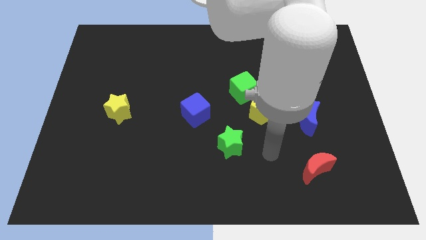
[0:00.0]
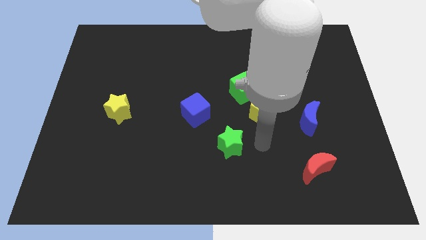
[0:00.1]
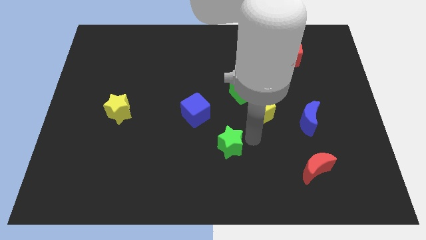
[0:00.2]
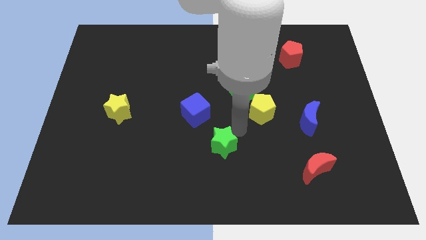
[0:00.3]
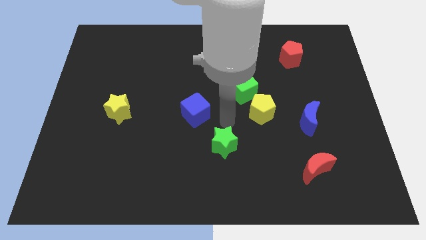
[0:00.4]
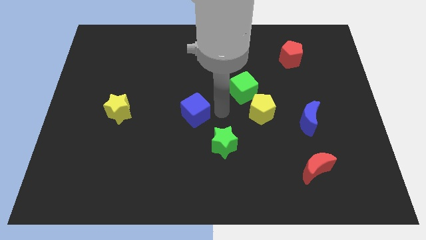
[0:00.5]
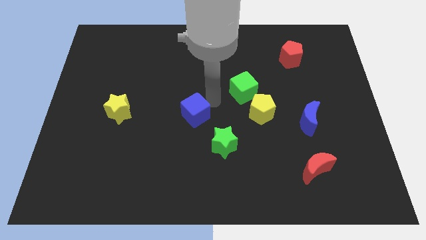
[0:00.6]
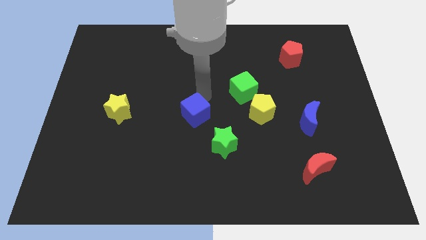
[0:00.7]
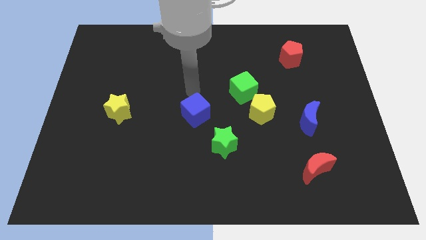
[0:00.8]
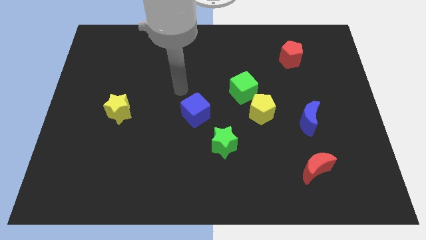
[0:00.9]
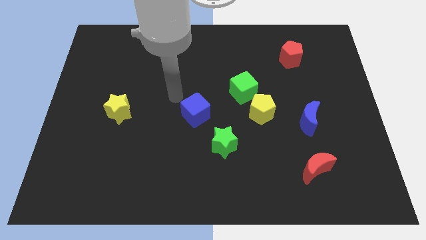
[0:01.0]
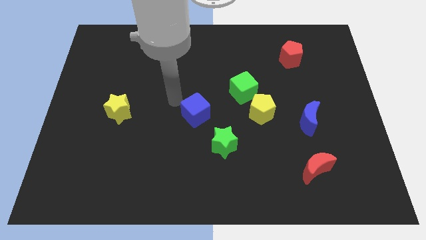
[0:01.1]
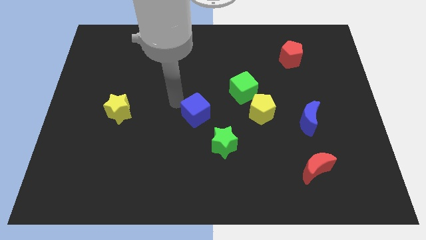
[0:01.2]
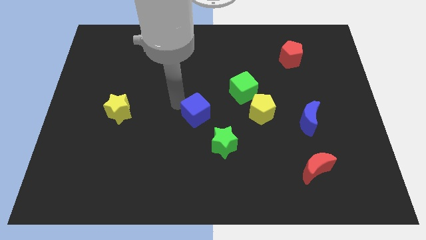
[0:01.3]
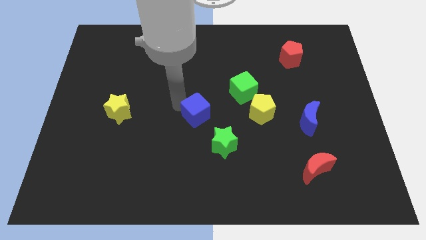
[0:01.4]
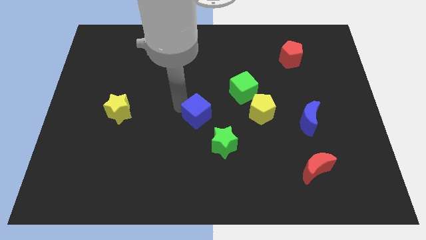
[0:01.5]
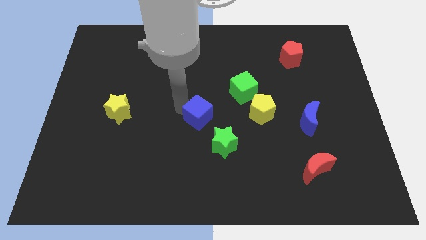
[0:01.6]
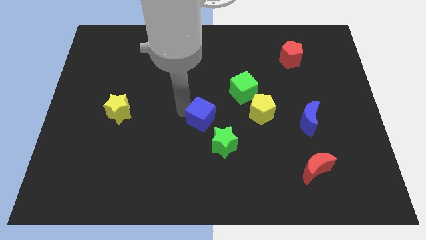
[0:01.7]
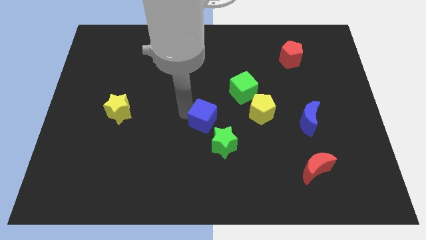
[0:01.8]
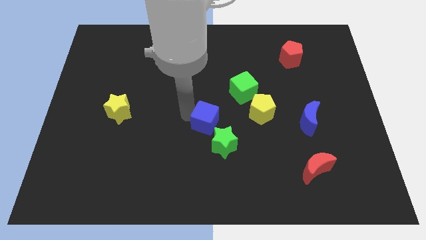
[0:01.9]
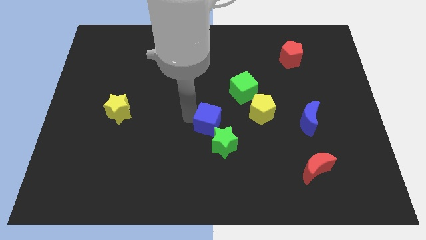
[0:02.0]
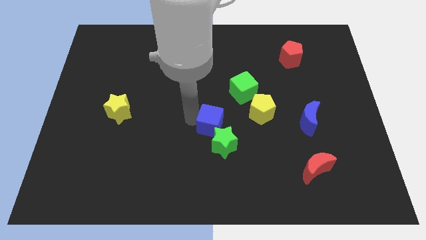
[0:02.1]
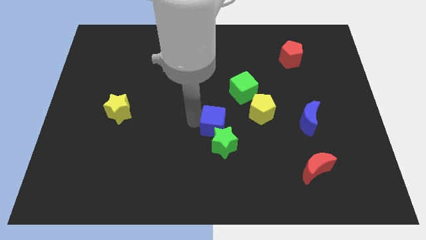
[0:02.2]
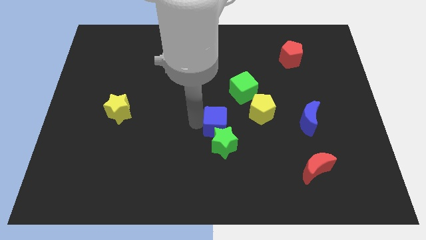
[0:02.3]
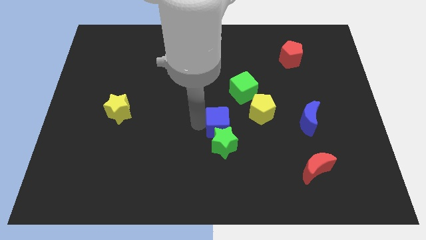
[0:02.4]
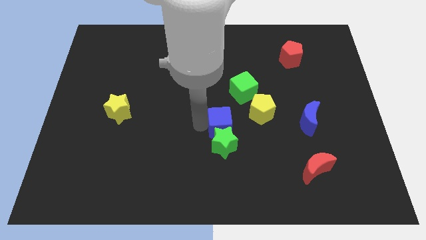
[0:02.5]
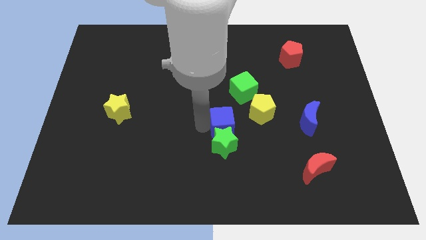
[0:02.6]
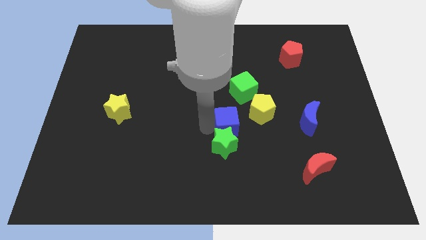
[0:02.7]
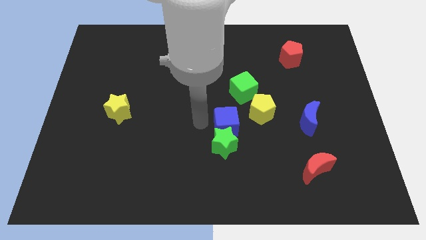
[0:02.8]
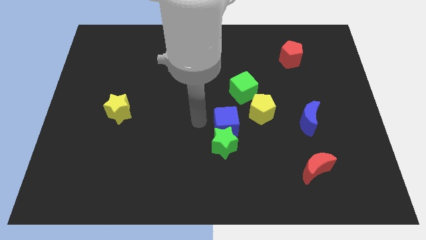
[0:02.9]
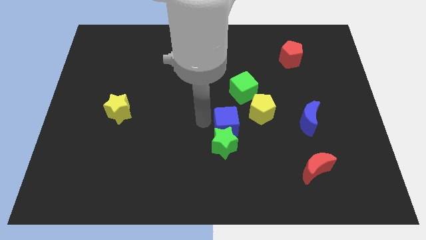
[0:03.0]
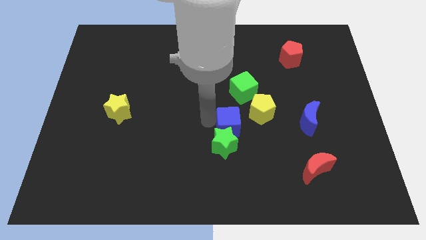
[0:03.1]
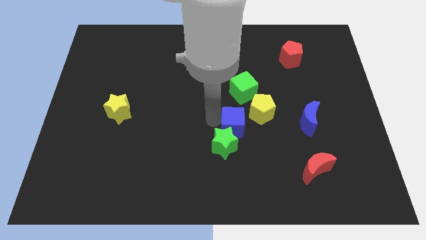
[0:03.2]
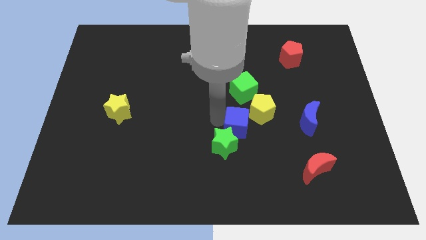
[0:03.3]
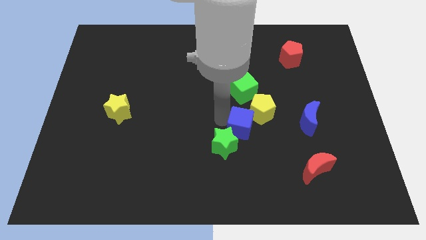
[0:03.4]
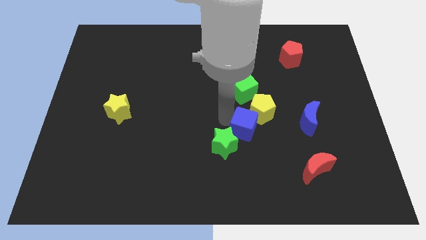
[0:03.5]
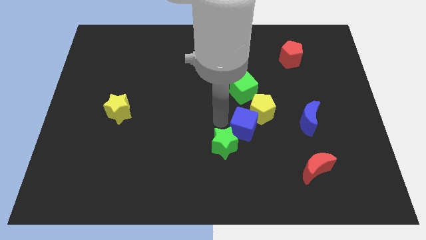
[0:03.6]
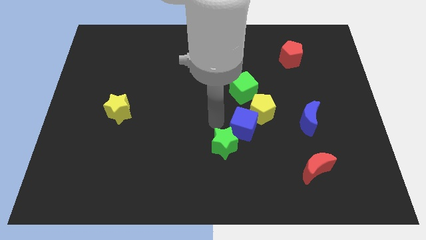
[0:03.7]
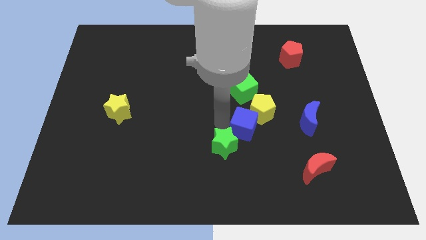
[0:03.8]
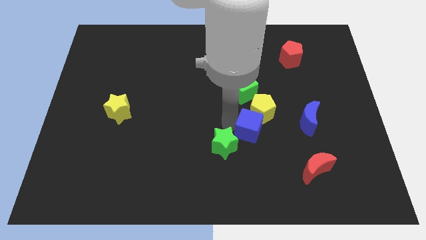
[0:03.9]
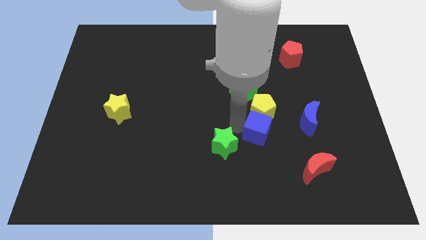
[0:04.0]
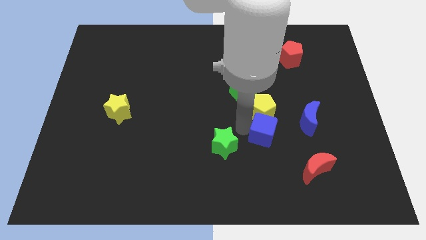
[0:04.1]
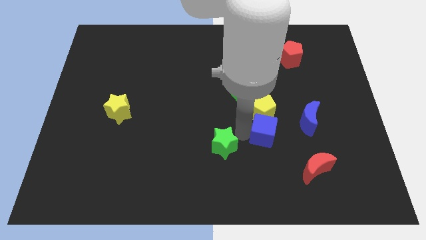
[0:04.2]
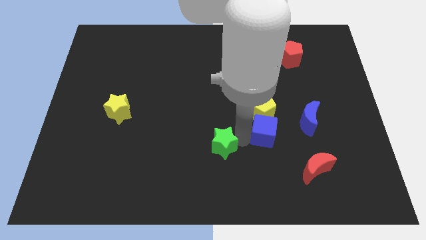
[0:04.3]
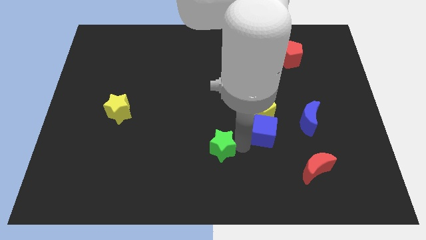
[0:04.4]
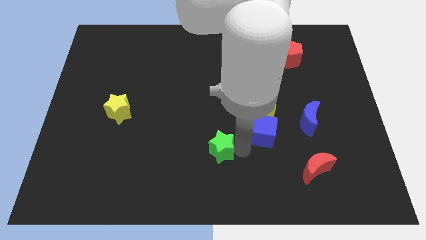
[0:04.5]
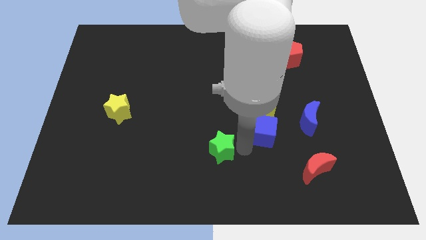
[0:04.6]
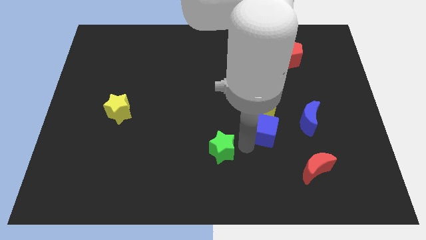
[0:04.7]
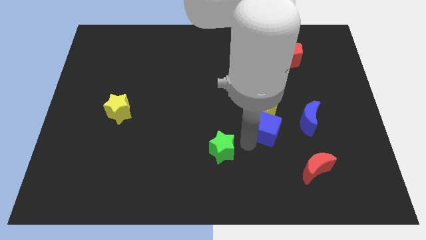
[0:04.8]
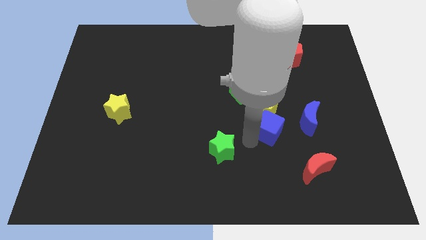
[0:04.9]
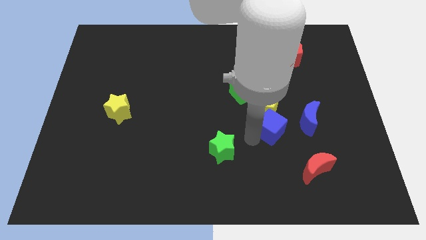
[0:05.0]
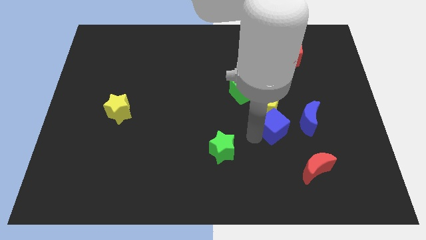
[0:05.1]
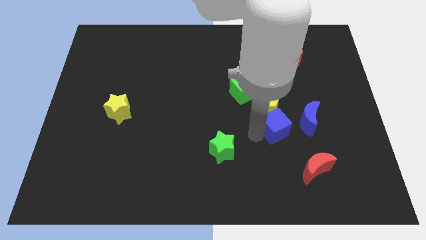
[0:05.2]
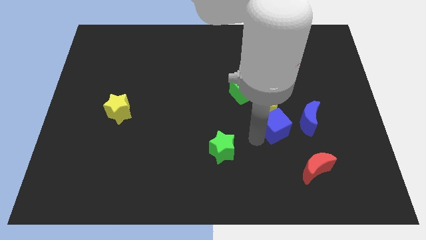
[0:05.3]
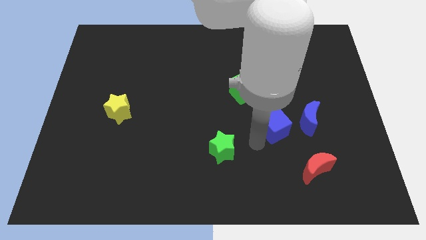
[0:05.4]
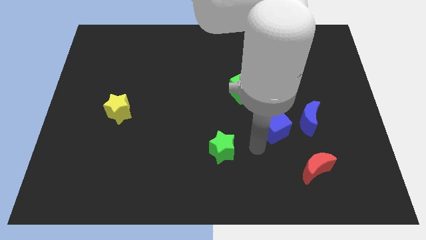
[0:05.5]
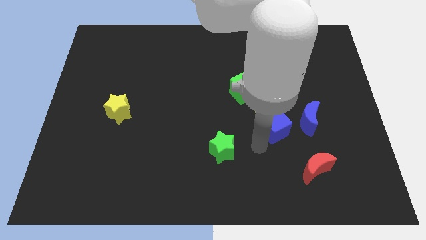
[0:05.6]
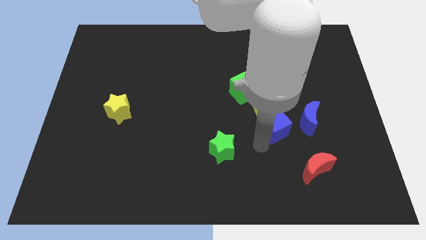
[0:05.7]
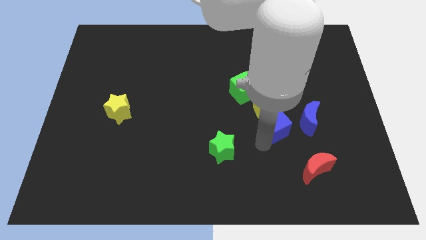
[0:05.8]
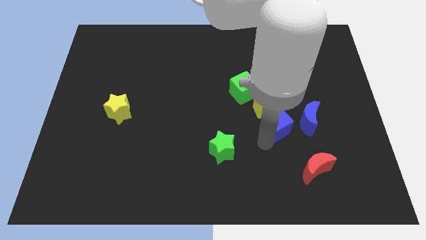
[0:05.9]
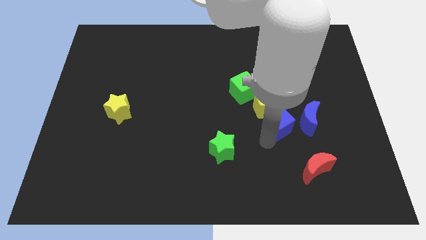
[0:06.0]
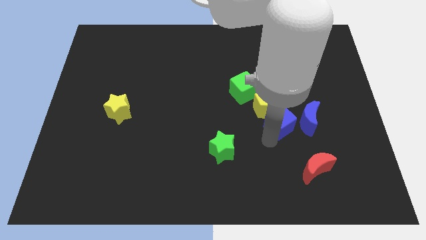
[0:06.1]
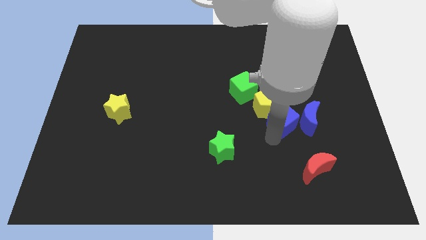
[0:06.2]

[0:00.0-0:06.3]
push the blue cube to the right of the yellow pentagon
